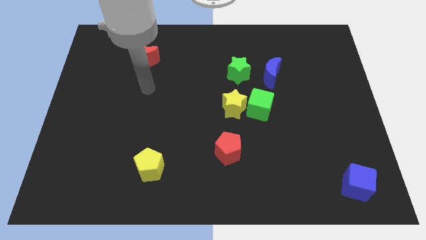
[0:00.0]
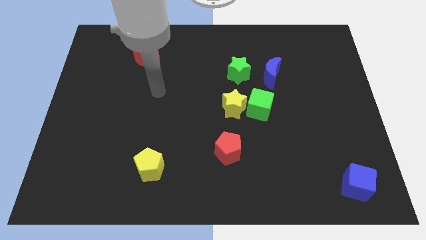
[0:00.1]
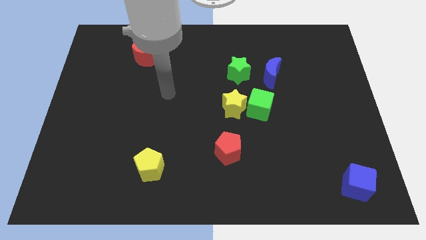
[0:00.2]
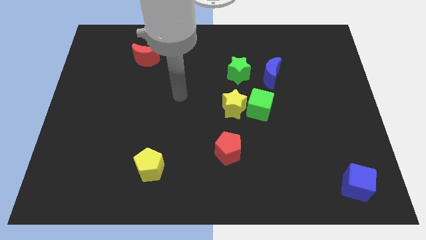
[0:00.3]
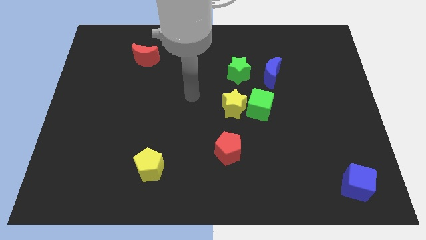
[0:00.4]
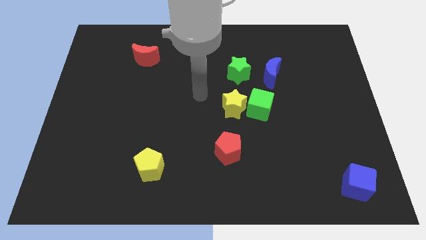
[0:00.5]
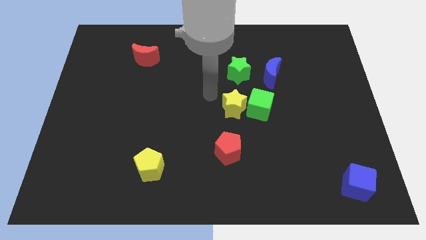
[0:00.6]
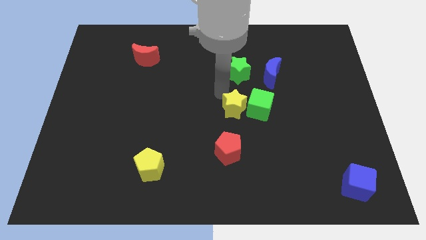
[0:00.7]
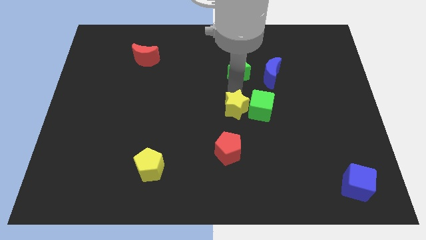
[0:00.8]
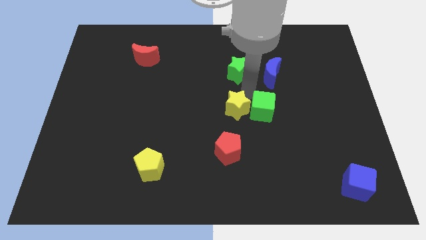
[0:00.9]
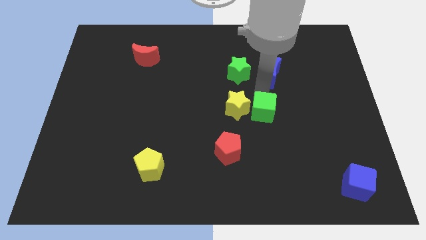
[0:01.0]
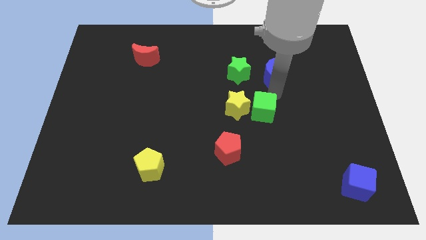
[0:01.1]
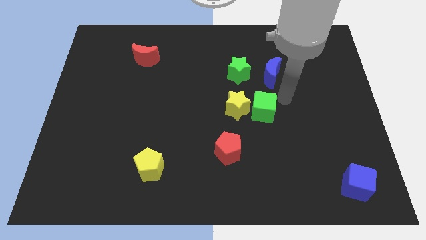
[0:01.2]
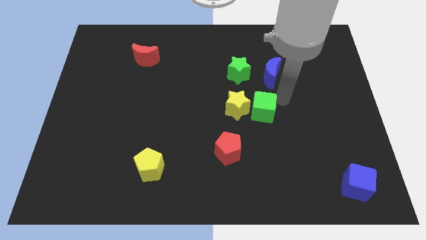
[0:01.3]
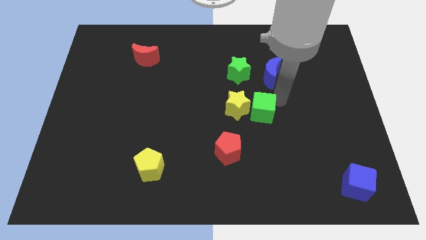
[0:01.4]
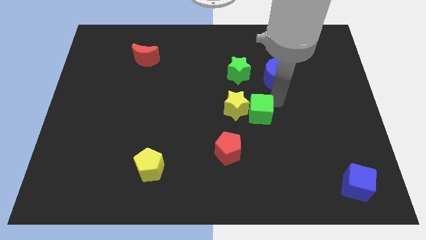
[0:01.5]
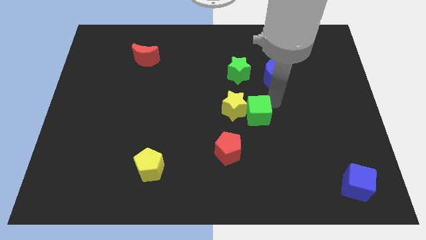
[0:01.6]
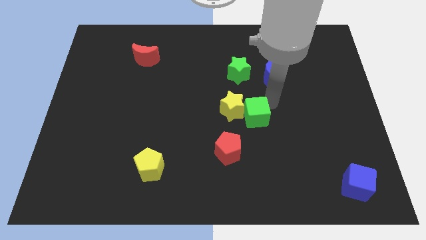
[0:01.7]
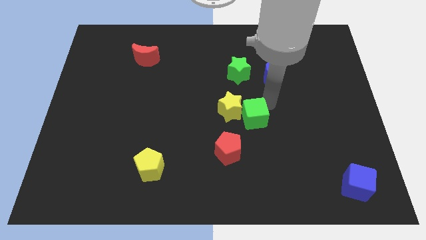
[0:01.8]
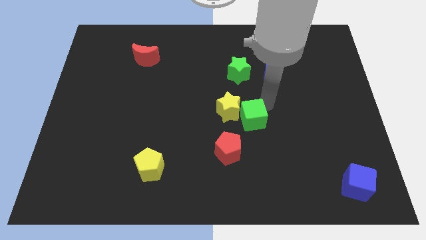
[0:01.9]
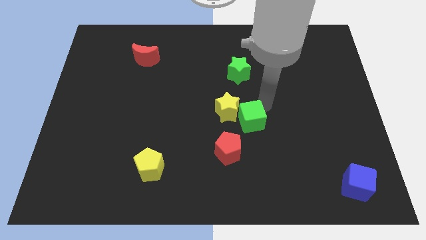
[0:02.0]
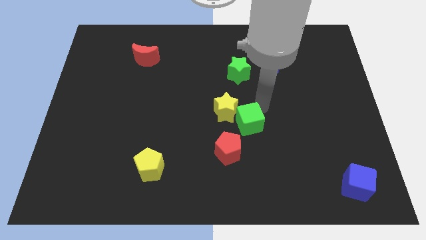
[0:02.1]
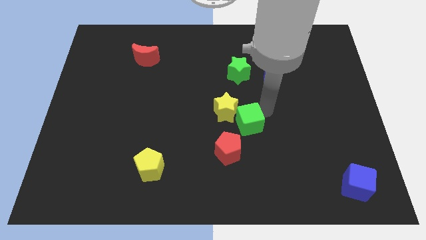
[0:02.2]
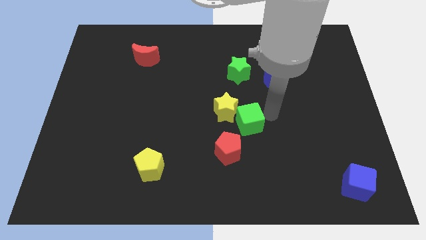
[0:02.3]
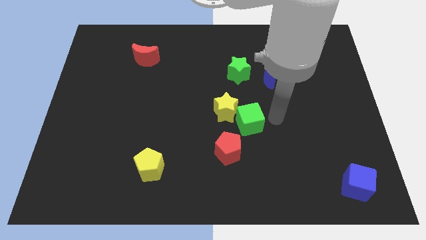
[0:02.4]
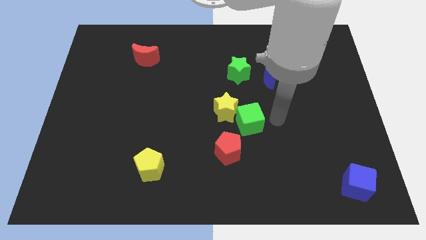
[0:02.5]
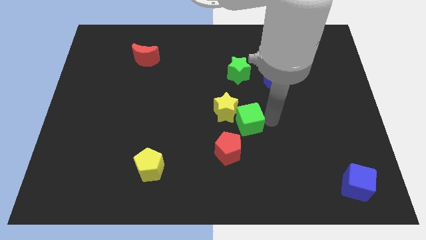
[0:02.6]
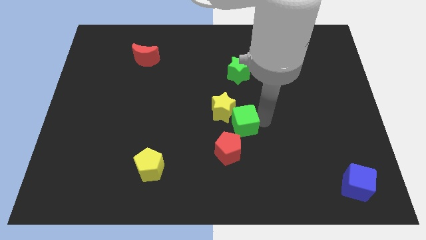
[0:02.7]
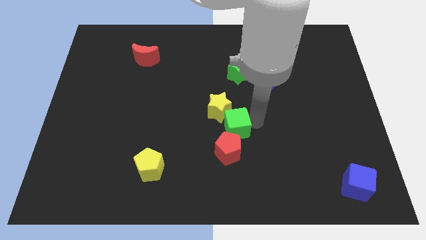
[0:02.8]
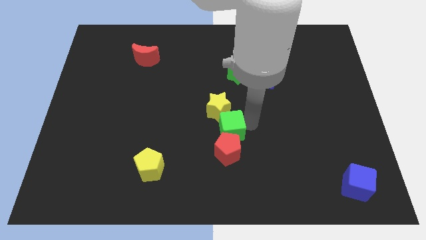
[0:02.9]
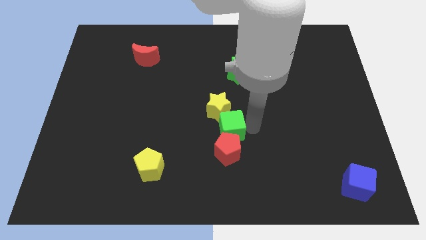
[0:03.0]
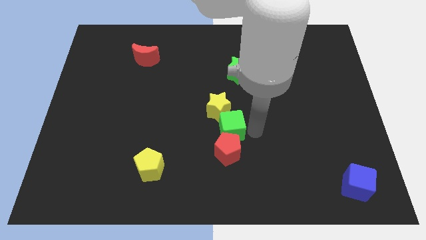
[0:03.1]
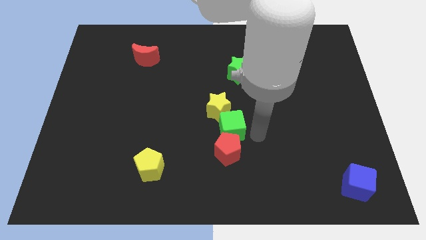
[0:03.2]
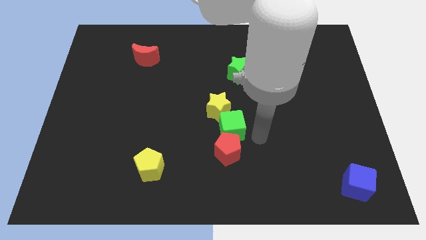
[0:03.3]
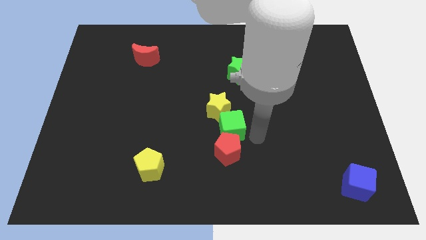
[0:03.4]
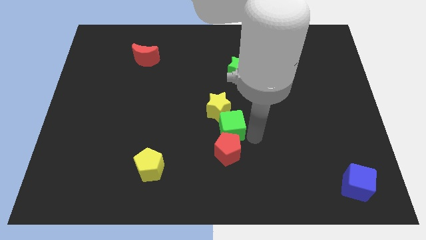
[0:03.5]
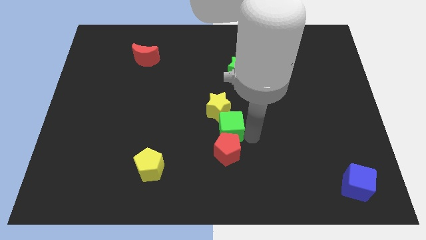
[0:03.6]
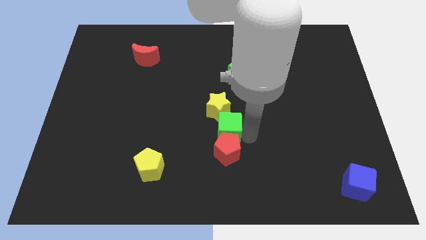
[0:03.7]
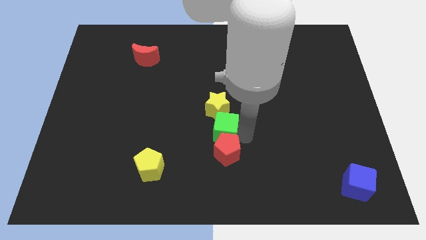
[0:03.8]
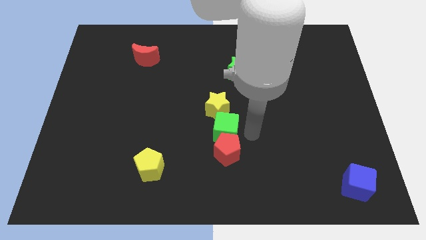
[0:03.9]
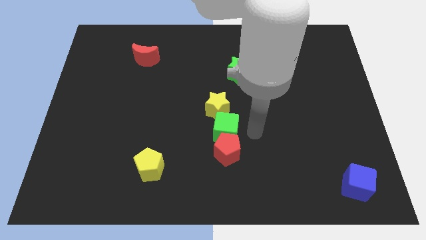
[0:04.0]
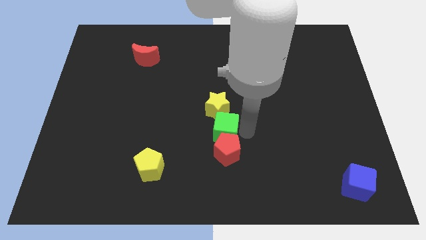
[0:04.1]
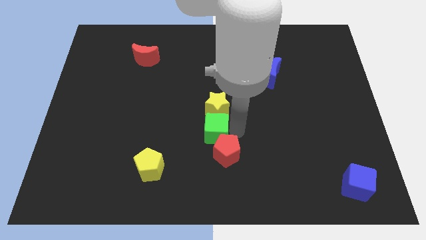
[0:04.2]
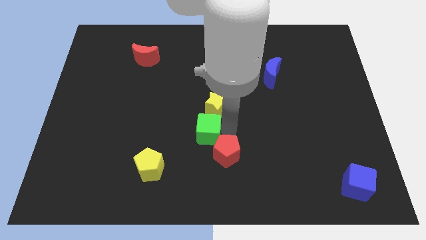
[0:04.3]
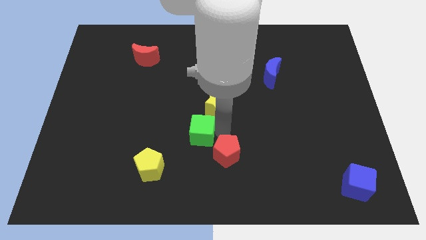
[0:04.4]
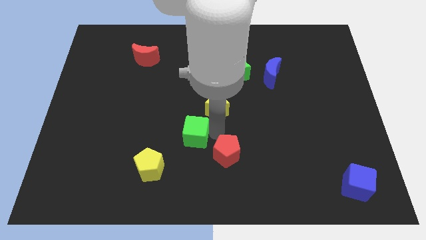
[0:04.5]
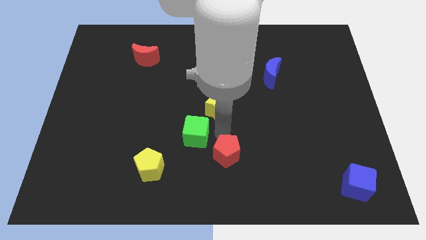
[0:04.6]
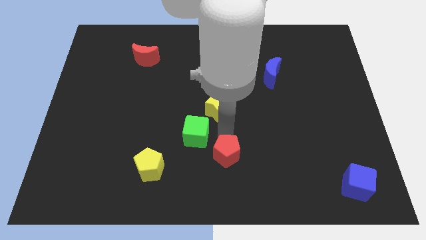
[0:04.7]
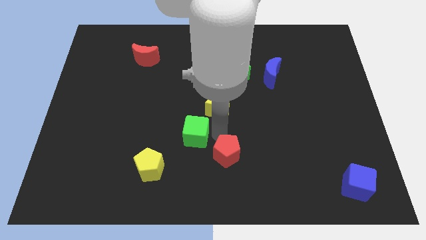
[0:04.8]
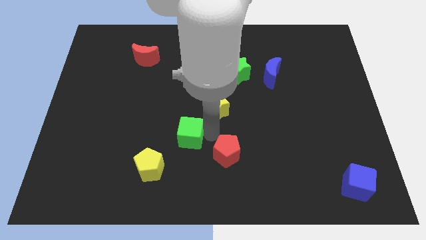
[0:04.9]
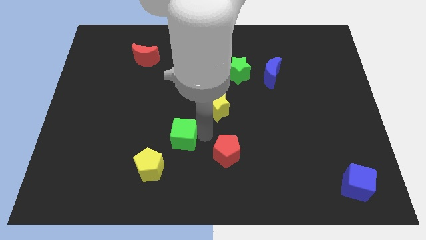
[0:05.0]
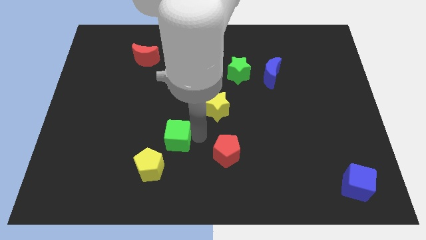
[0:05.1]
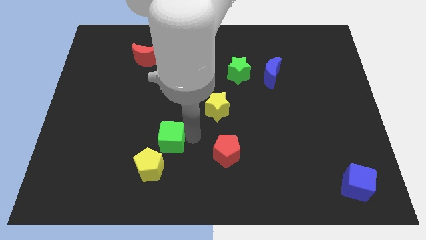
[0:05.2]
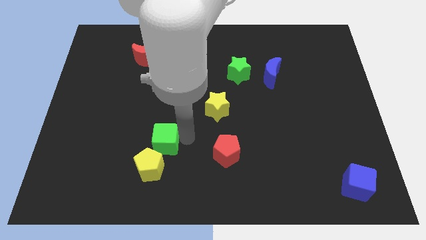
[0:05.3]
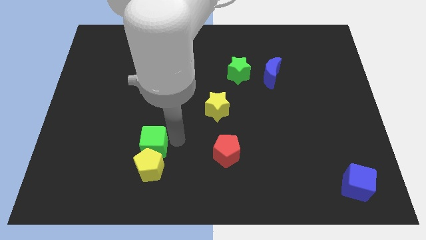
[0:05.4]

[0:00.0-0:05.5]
push the green cube diagonally up and to the left of the yellow pentagon

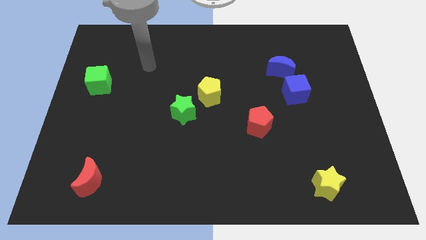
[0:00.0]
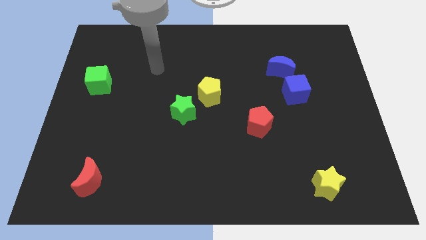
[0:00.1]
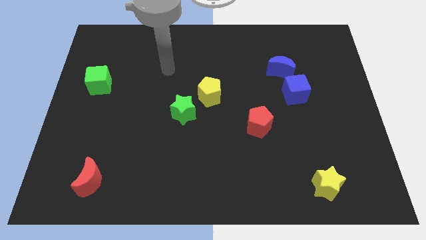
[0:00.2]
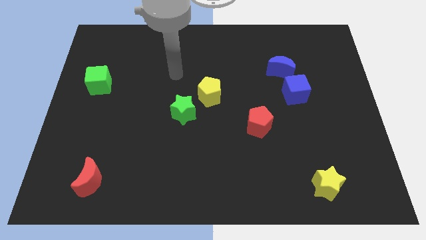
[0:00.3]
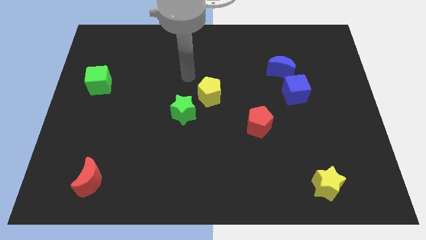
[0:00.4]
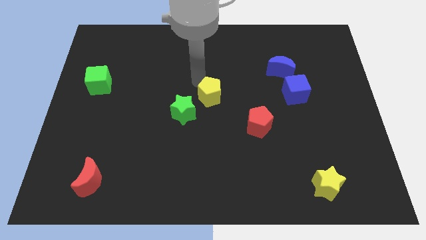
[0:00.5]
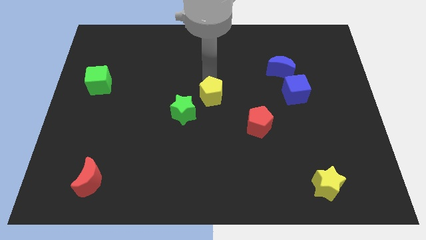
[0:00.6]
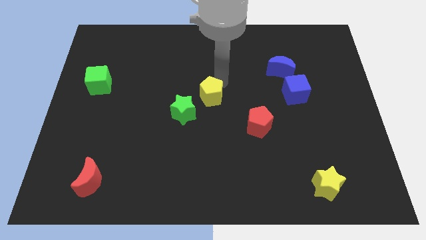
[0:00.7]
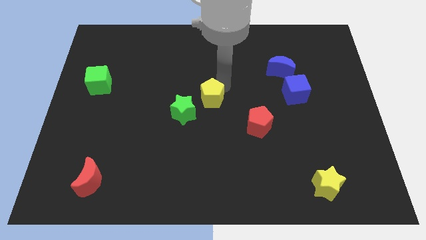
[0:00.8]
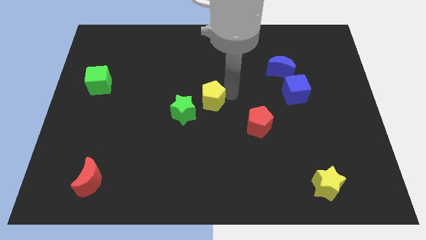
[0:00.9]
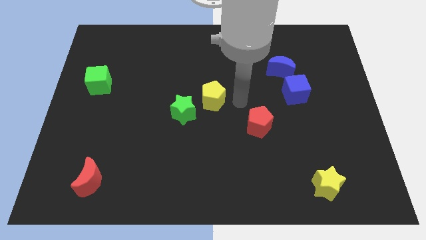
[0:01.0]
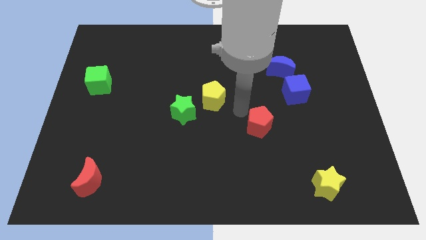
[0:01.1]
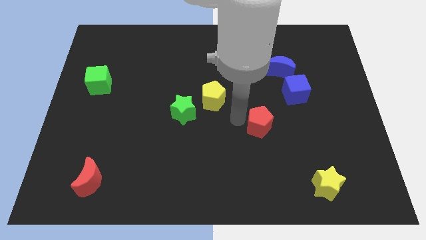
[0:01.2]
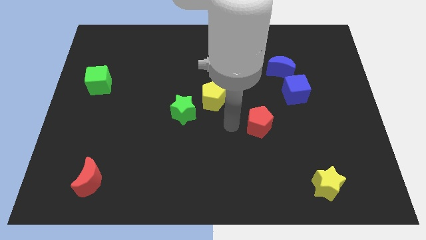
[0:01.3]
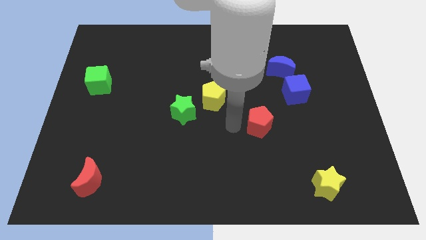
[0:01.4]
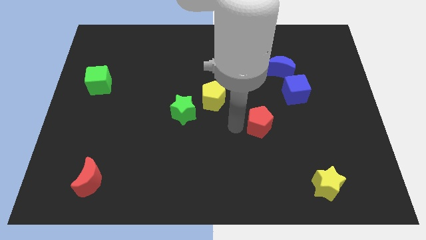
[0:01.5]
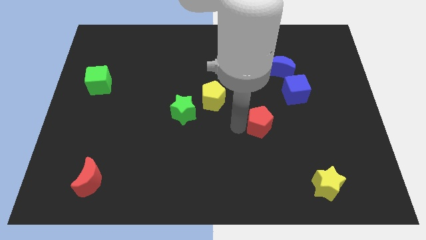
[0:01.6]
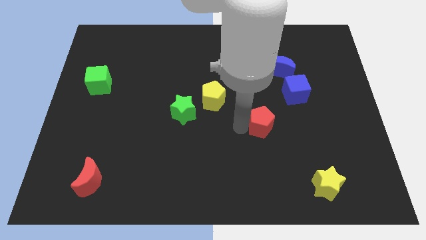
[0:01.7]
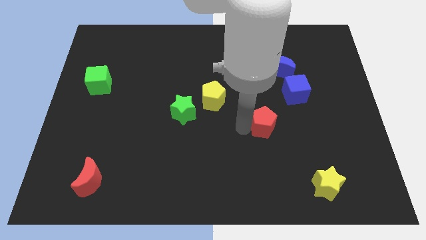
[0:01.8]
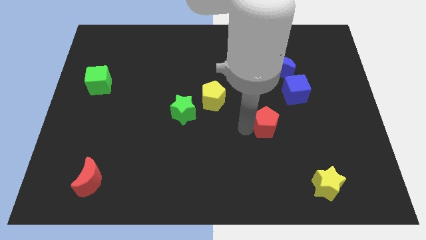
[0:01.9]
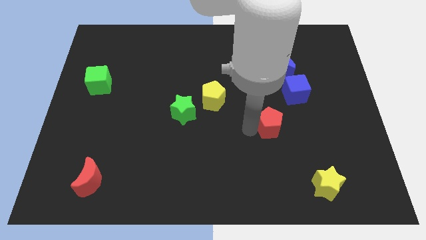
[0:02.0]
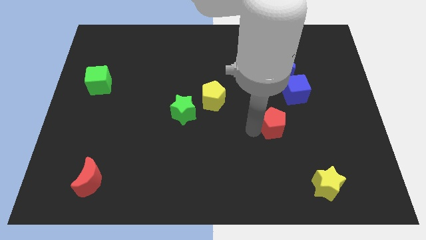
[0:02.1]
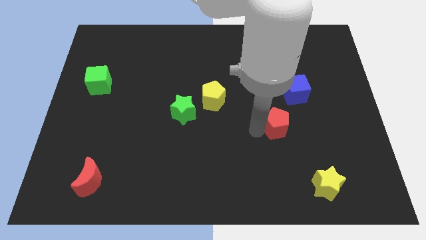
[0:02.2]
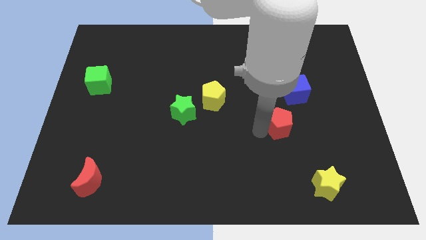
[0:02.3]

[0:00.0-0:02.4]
slide the red pentagon to the bottom of the blue cube
